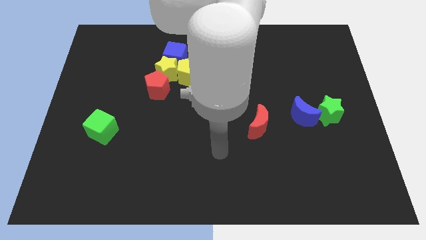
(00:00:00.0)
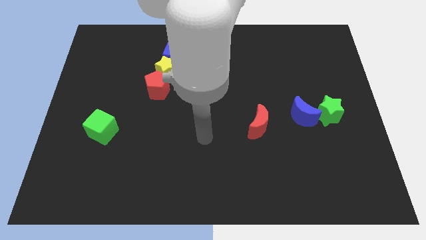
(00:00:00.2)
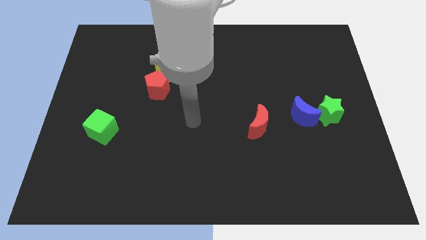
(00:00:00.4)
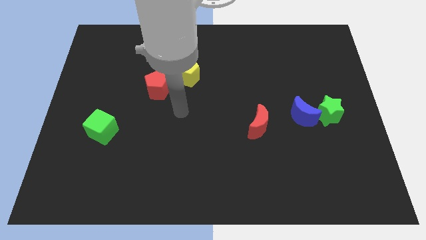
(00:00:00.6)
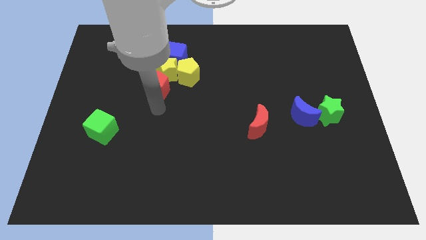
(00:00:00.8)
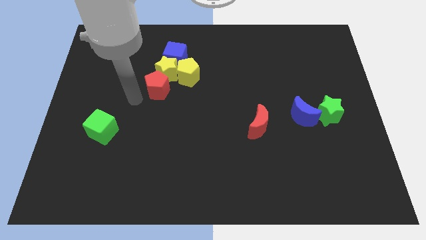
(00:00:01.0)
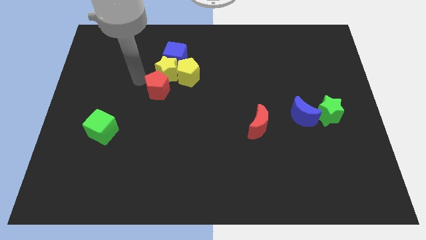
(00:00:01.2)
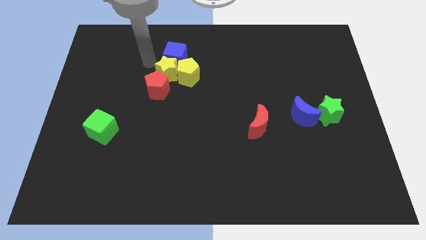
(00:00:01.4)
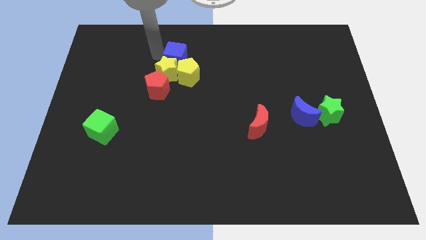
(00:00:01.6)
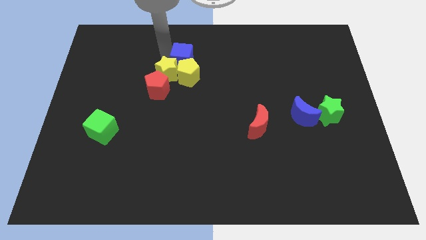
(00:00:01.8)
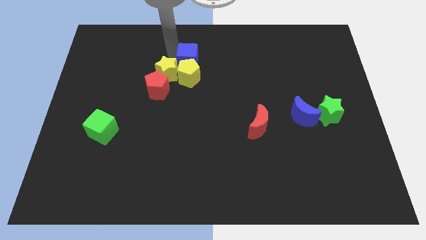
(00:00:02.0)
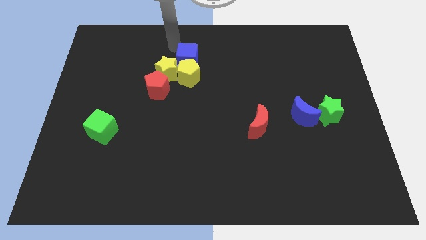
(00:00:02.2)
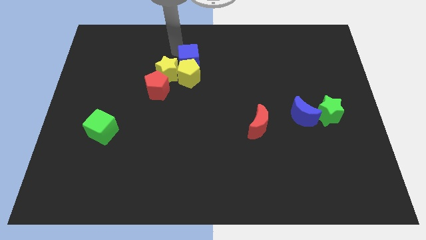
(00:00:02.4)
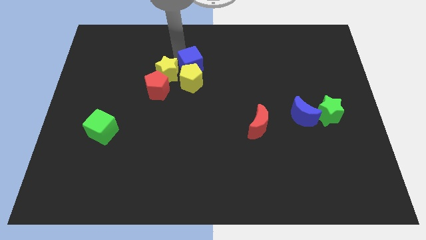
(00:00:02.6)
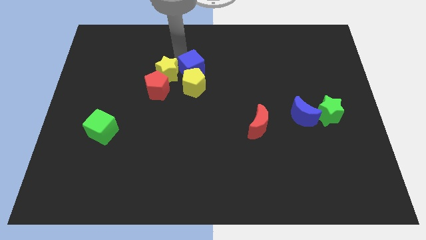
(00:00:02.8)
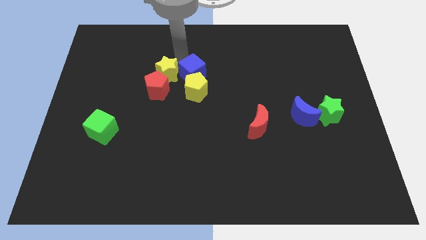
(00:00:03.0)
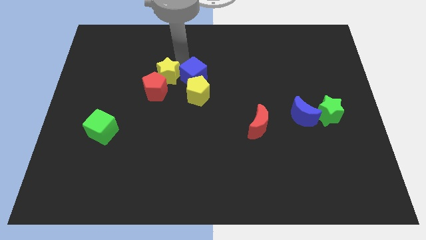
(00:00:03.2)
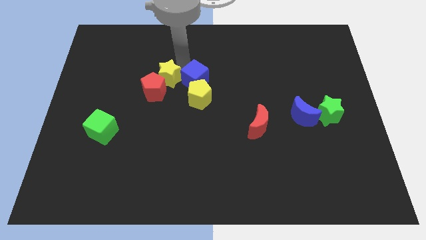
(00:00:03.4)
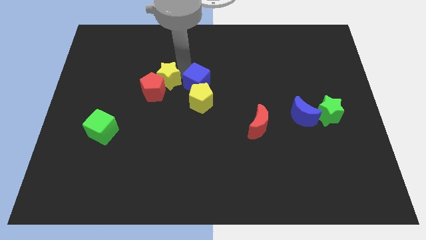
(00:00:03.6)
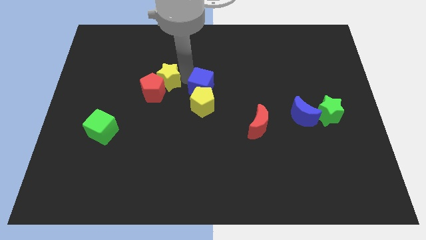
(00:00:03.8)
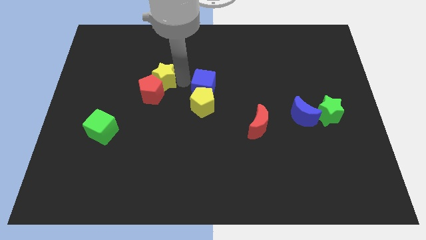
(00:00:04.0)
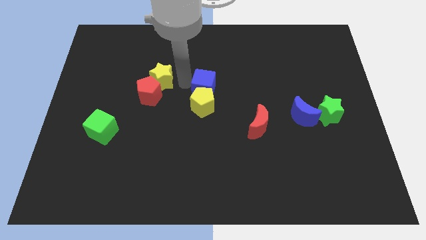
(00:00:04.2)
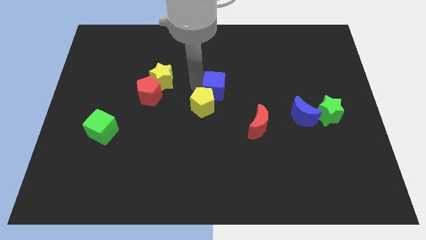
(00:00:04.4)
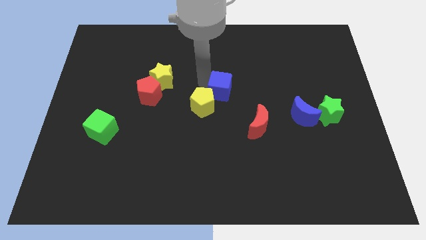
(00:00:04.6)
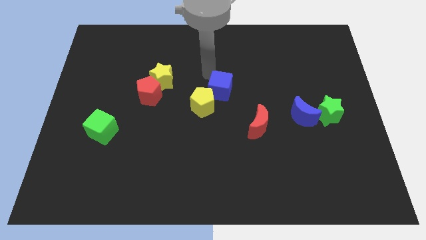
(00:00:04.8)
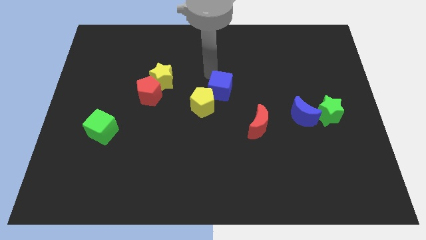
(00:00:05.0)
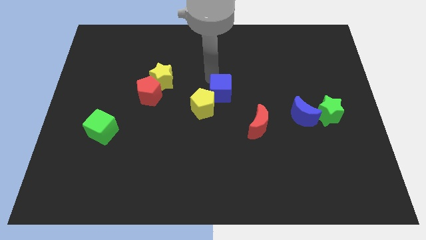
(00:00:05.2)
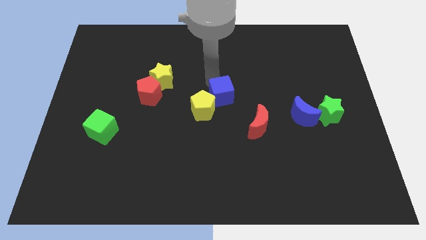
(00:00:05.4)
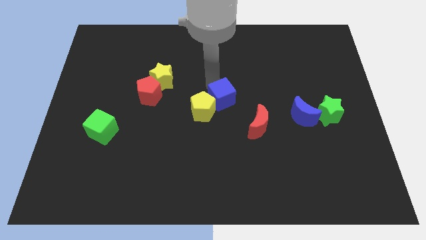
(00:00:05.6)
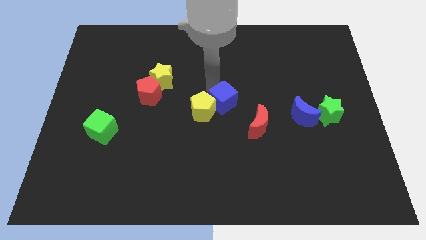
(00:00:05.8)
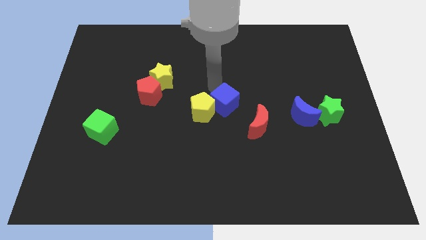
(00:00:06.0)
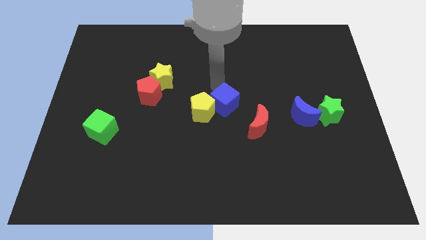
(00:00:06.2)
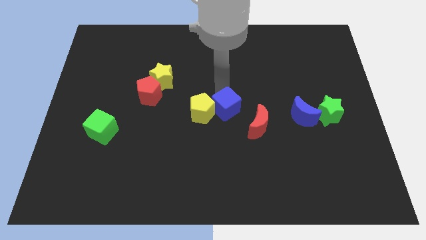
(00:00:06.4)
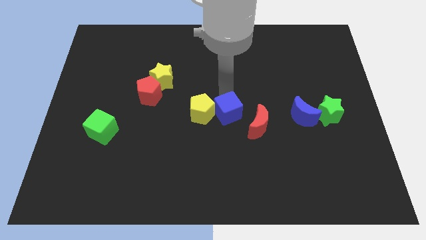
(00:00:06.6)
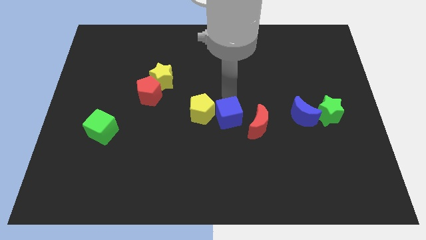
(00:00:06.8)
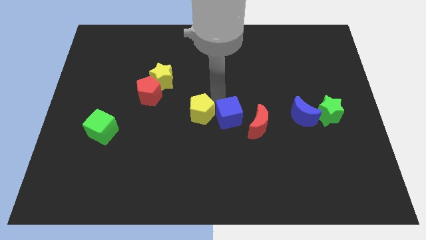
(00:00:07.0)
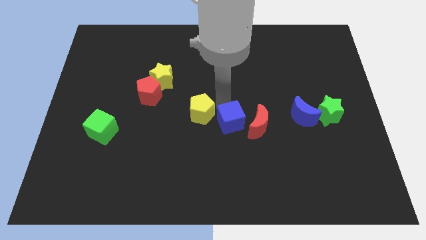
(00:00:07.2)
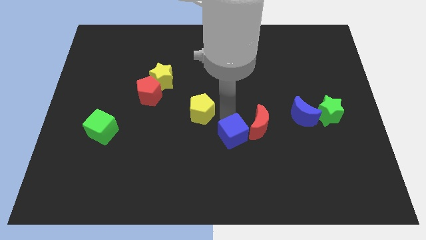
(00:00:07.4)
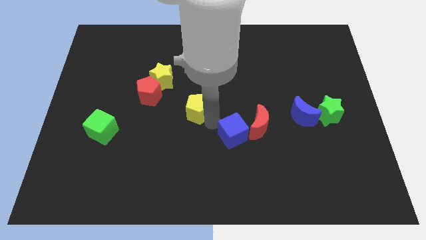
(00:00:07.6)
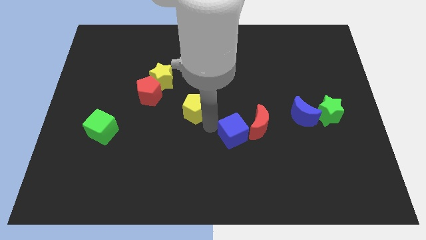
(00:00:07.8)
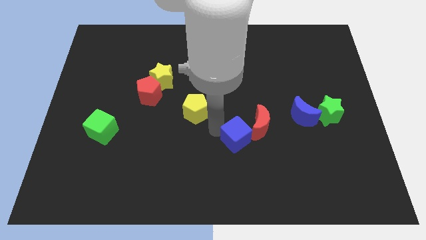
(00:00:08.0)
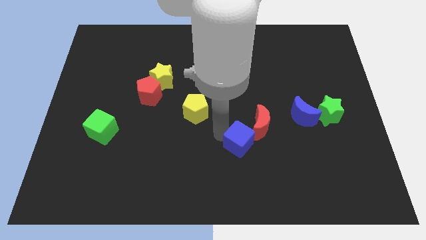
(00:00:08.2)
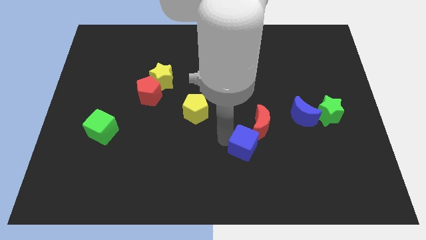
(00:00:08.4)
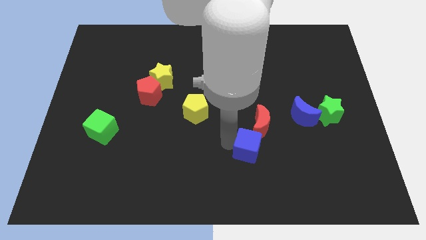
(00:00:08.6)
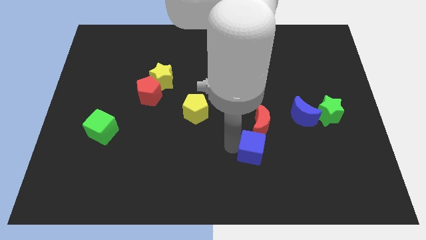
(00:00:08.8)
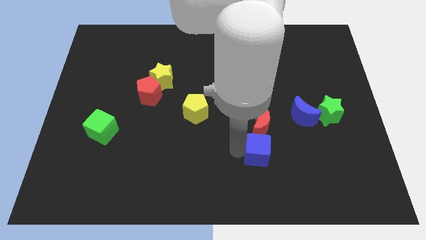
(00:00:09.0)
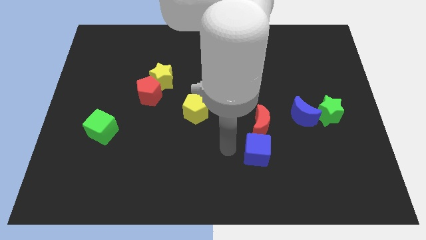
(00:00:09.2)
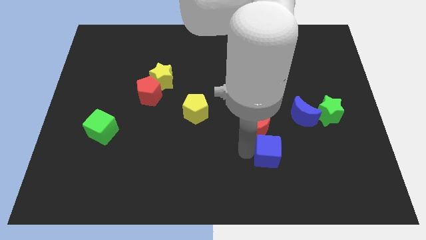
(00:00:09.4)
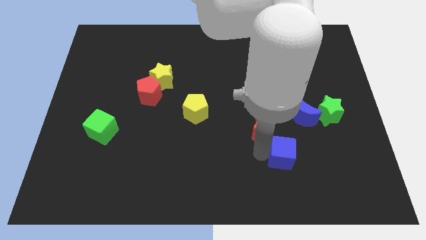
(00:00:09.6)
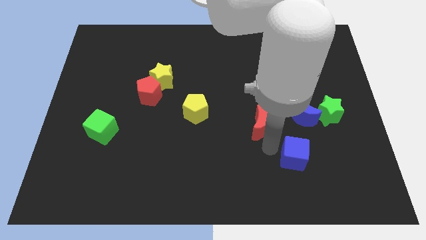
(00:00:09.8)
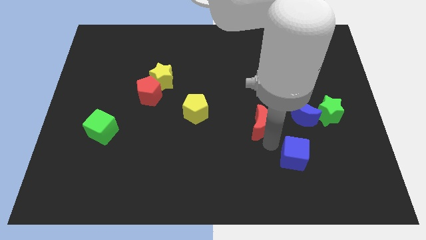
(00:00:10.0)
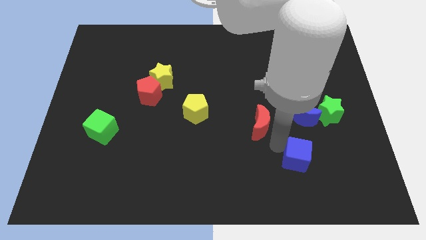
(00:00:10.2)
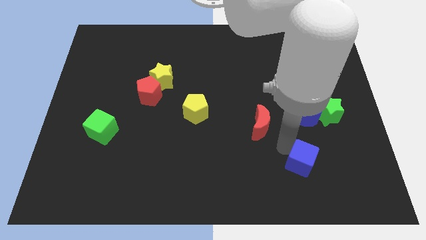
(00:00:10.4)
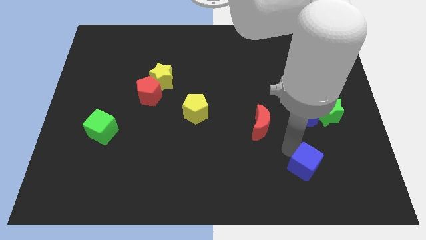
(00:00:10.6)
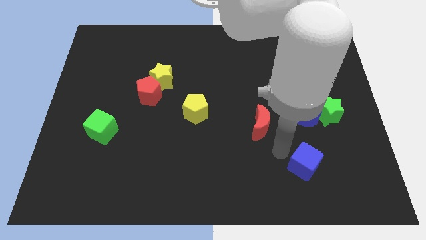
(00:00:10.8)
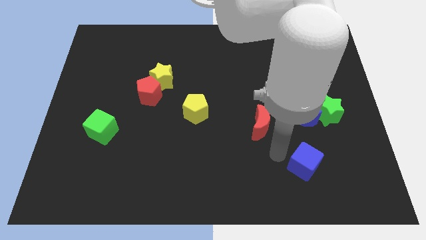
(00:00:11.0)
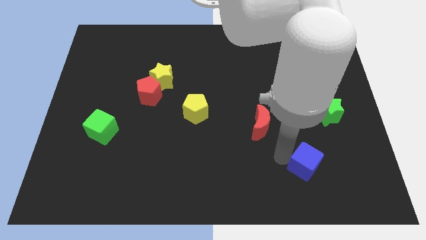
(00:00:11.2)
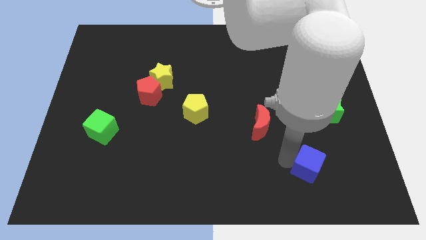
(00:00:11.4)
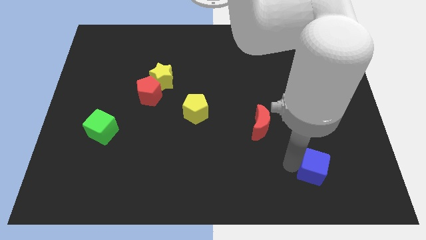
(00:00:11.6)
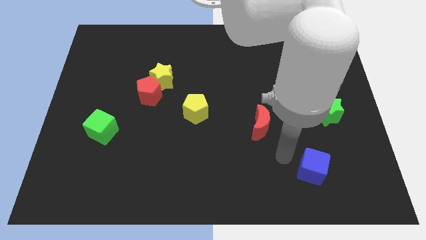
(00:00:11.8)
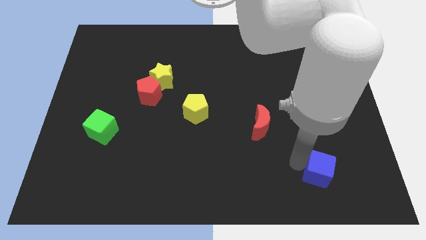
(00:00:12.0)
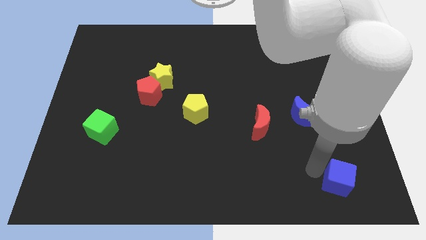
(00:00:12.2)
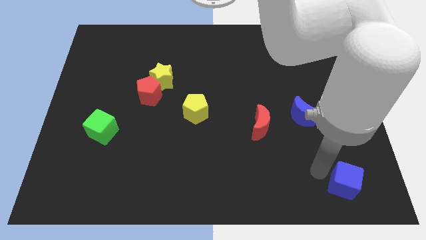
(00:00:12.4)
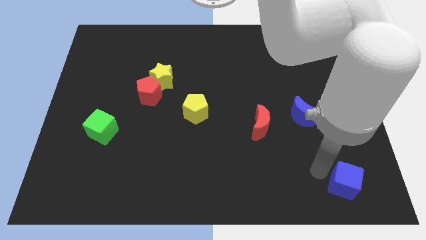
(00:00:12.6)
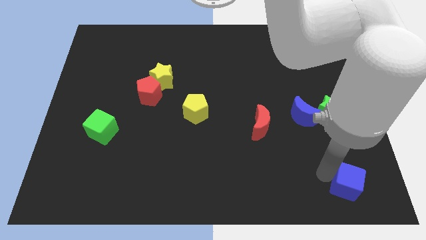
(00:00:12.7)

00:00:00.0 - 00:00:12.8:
push the blue cube to the lower right corner
